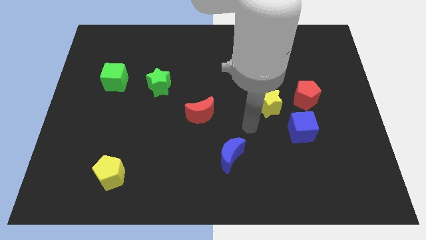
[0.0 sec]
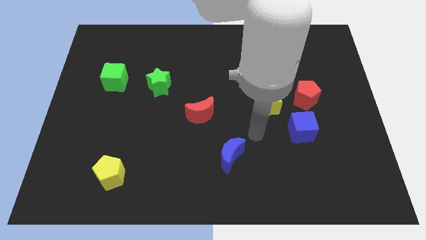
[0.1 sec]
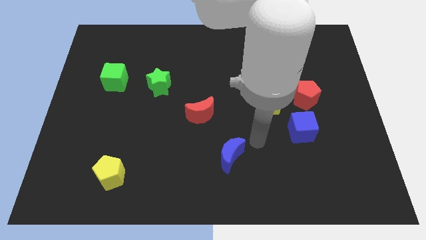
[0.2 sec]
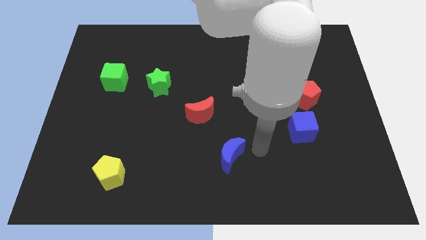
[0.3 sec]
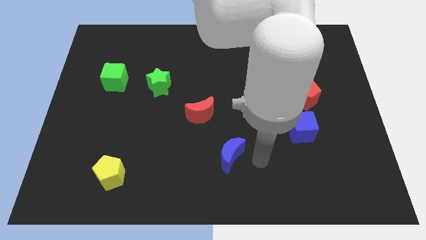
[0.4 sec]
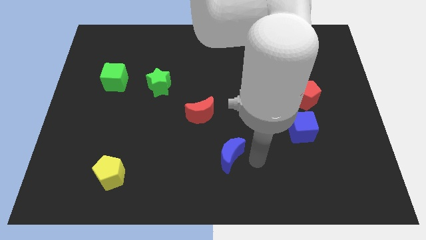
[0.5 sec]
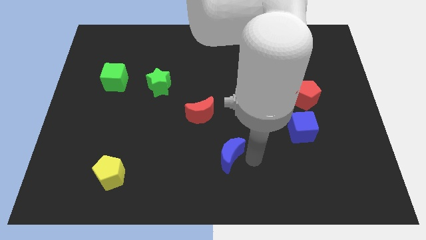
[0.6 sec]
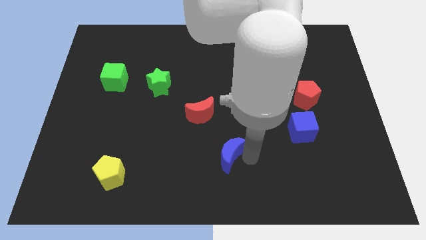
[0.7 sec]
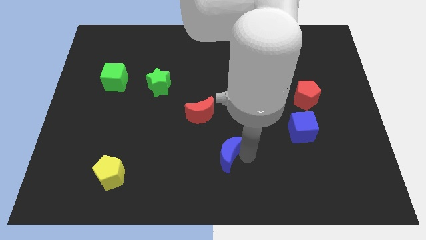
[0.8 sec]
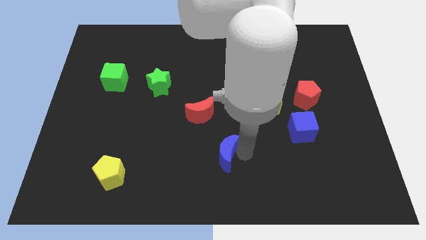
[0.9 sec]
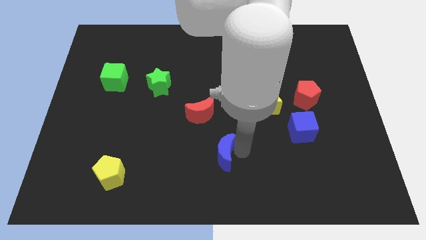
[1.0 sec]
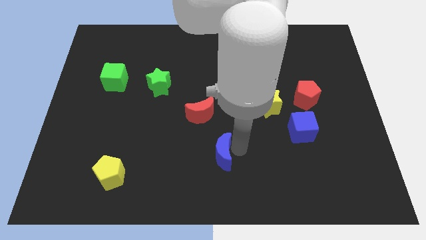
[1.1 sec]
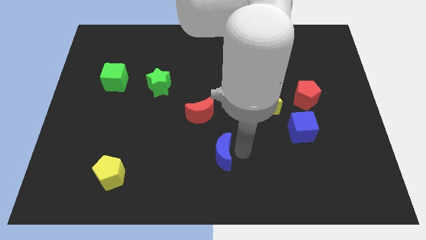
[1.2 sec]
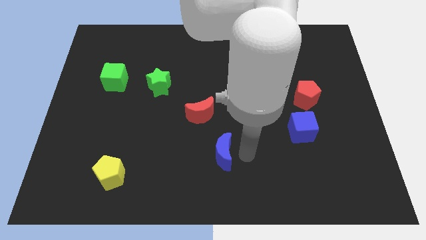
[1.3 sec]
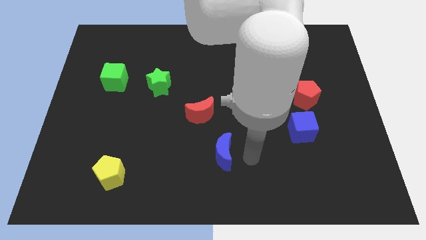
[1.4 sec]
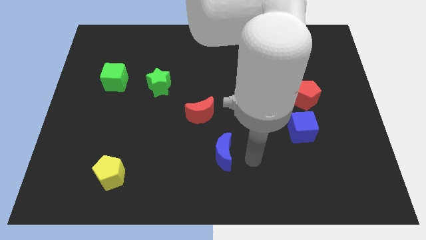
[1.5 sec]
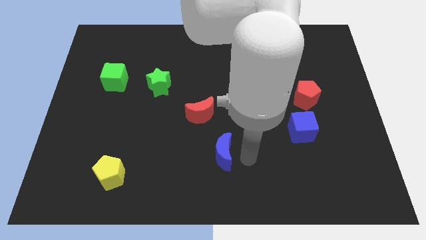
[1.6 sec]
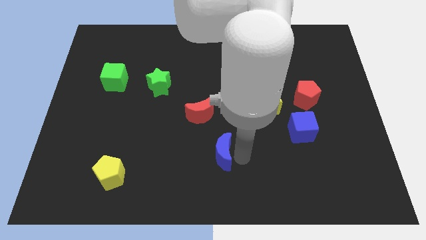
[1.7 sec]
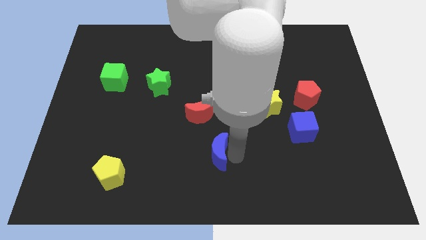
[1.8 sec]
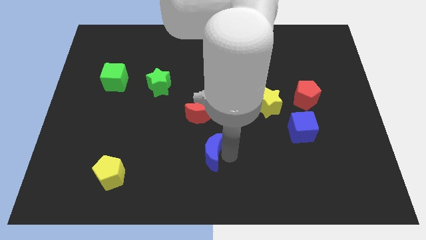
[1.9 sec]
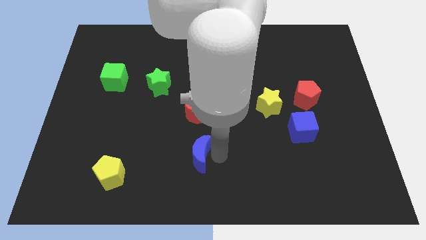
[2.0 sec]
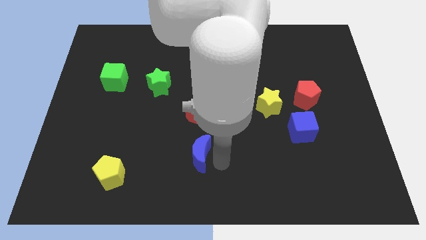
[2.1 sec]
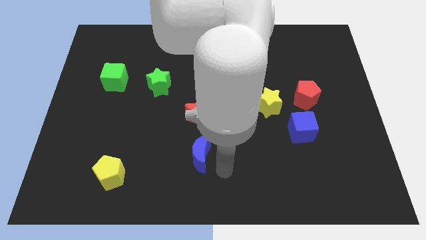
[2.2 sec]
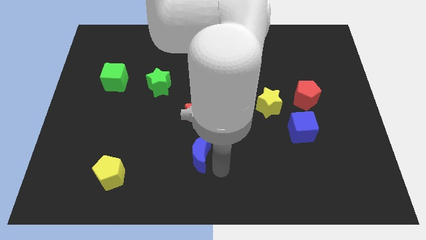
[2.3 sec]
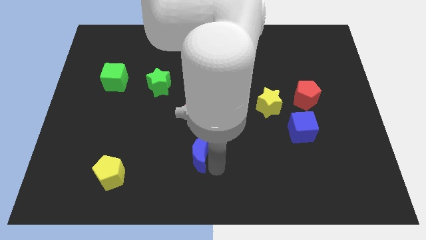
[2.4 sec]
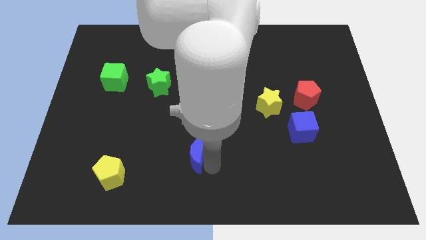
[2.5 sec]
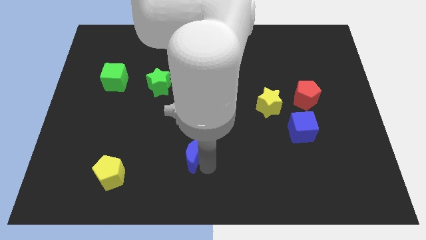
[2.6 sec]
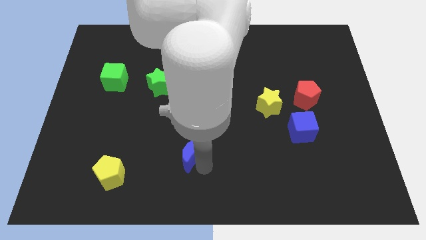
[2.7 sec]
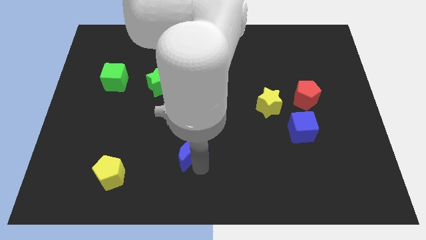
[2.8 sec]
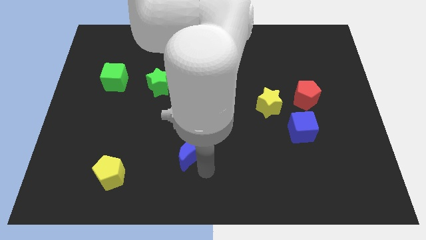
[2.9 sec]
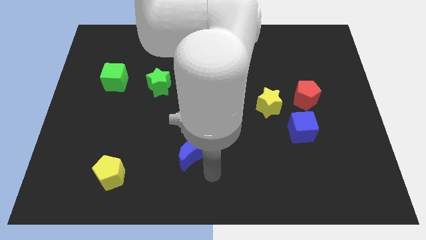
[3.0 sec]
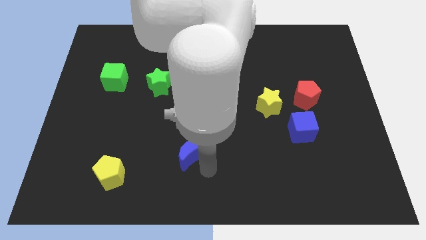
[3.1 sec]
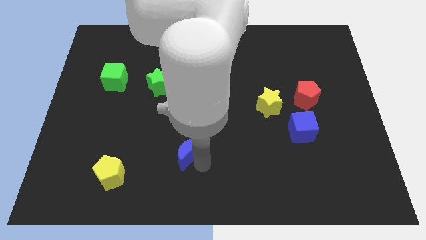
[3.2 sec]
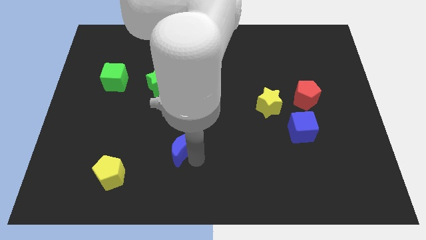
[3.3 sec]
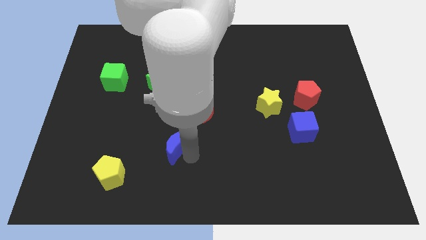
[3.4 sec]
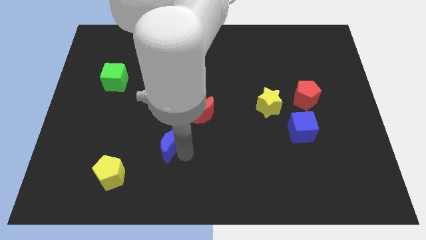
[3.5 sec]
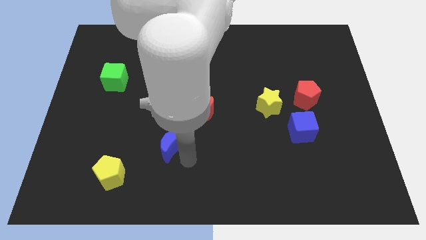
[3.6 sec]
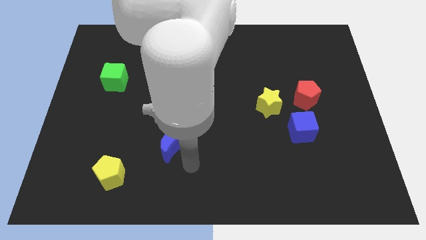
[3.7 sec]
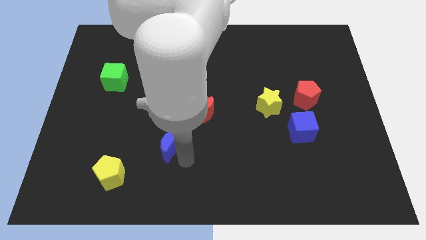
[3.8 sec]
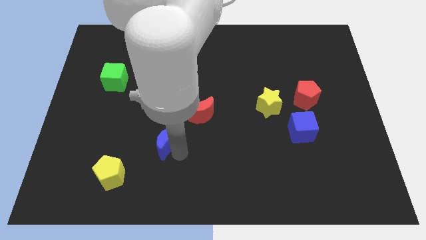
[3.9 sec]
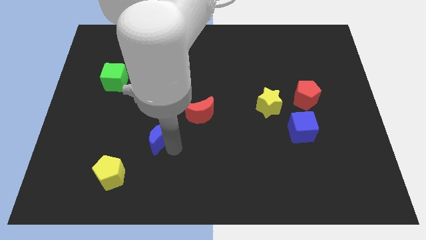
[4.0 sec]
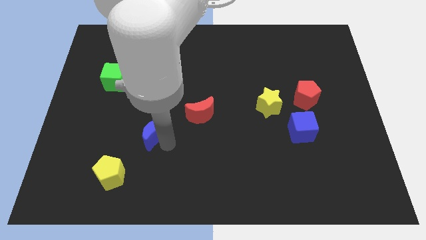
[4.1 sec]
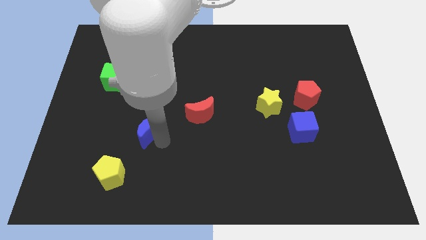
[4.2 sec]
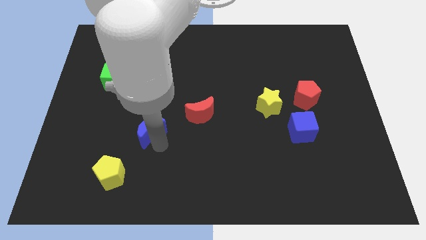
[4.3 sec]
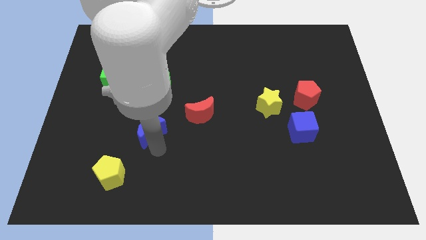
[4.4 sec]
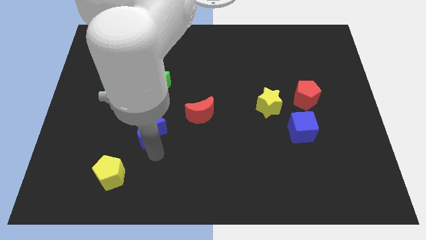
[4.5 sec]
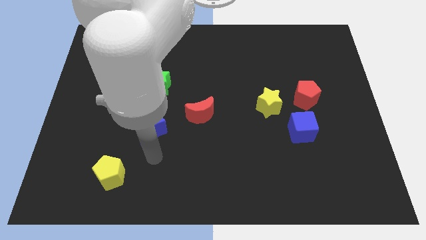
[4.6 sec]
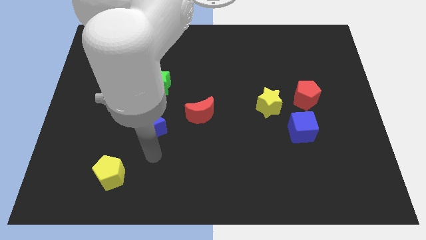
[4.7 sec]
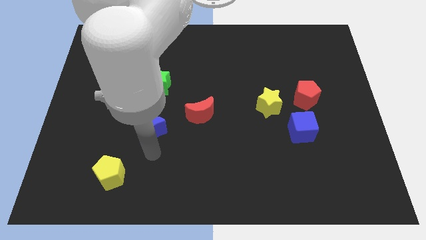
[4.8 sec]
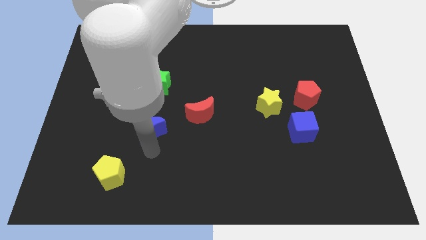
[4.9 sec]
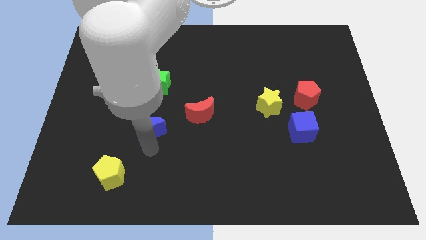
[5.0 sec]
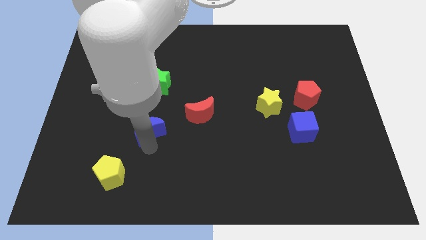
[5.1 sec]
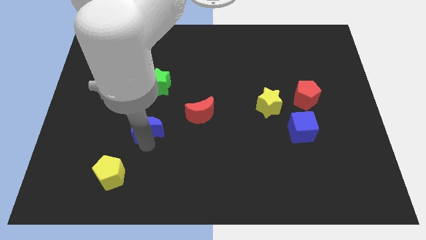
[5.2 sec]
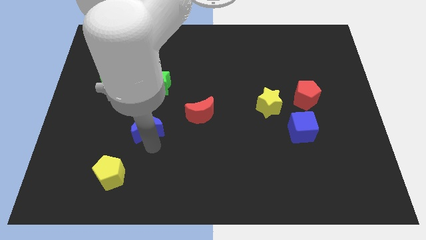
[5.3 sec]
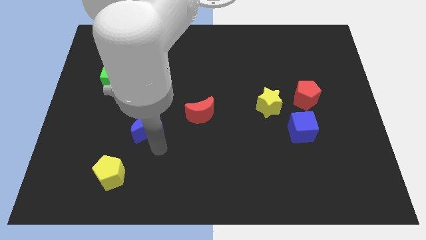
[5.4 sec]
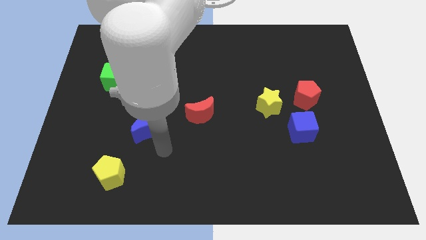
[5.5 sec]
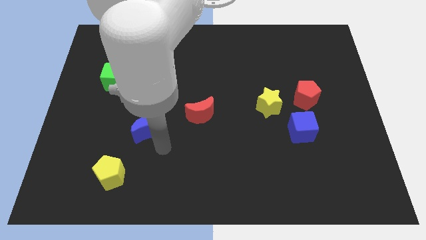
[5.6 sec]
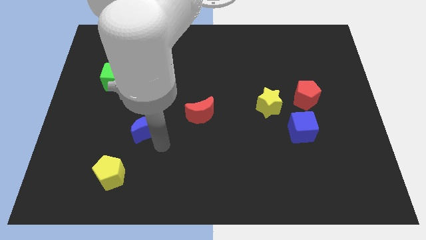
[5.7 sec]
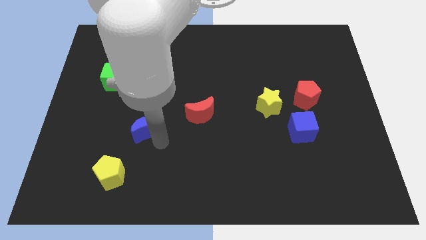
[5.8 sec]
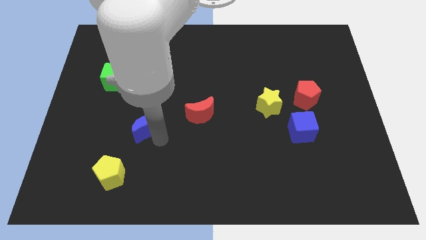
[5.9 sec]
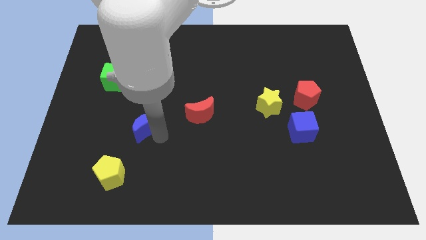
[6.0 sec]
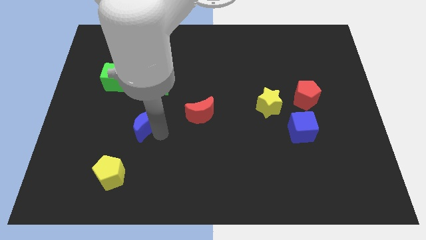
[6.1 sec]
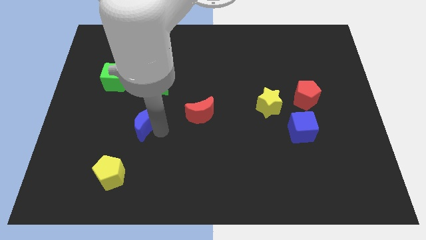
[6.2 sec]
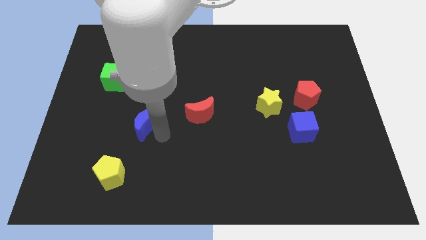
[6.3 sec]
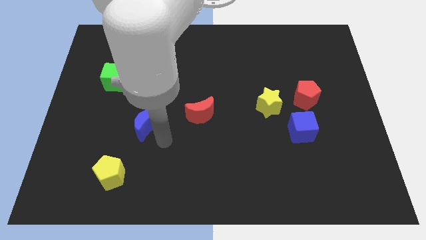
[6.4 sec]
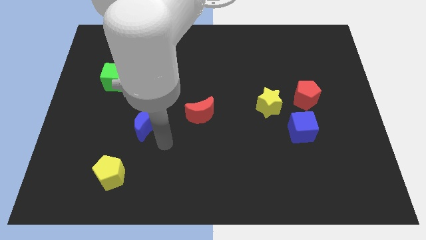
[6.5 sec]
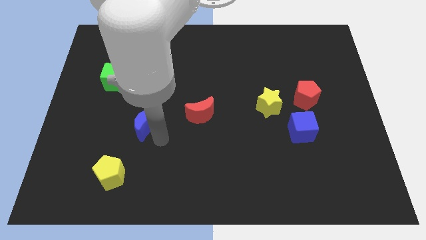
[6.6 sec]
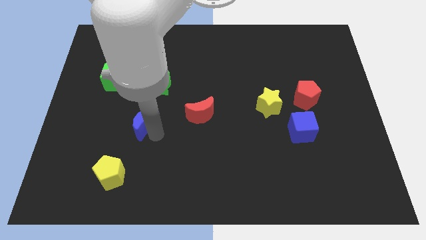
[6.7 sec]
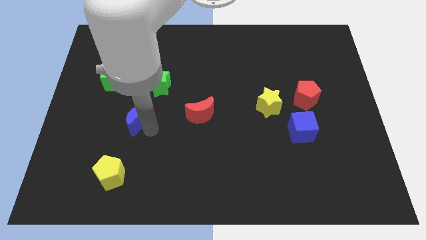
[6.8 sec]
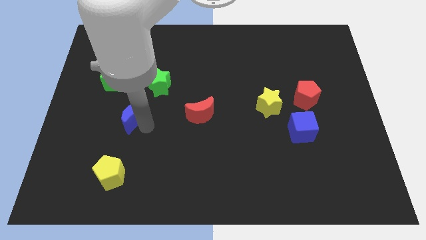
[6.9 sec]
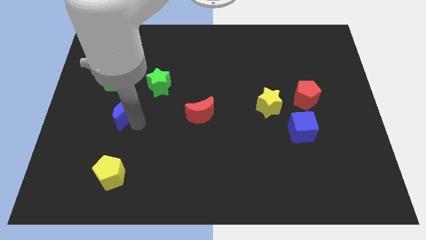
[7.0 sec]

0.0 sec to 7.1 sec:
move the blue moon upwards and then to the left

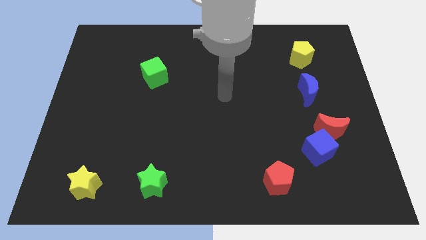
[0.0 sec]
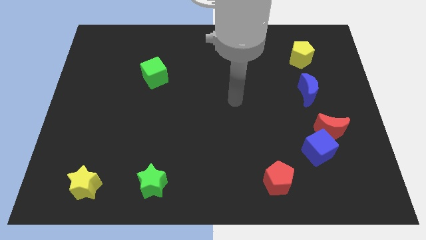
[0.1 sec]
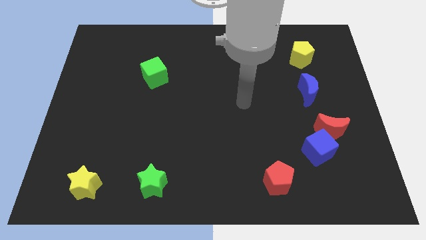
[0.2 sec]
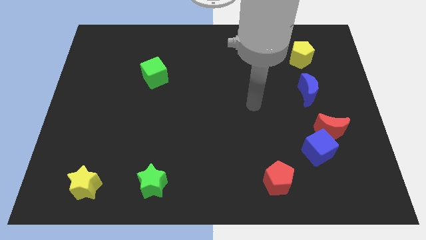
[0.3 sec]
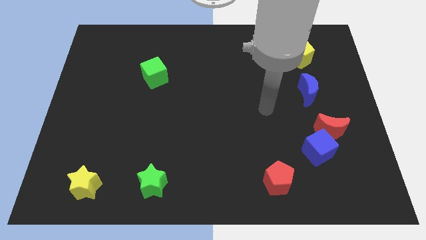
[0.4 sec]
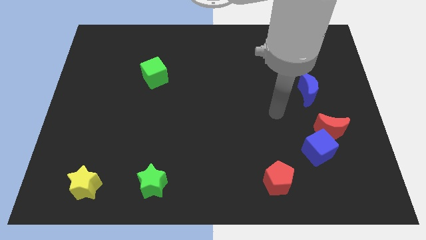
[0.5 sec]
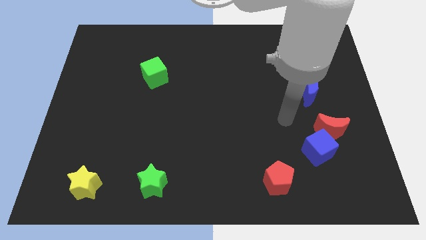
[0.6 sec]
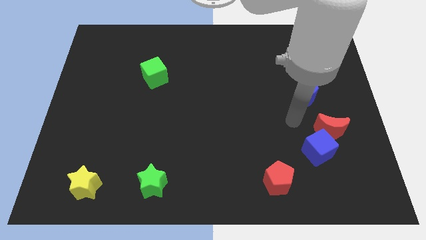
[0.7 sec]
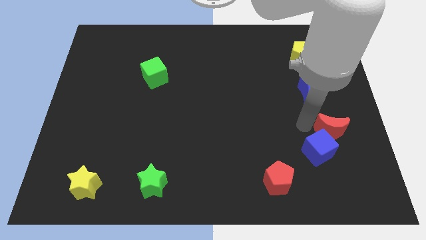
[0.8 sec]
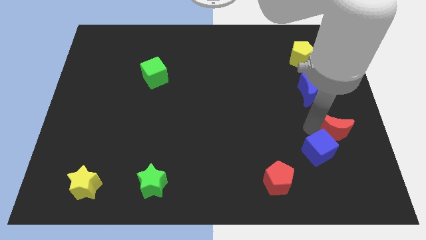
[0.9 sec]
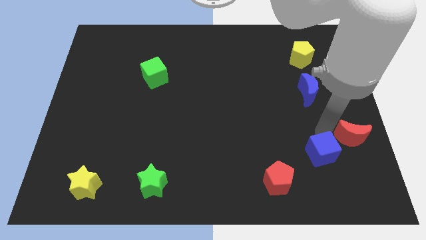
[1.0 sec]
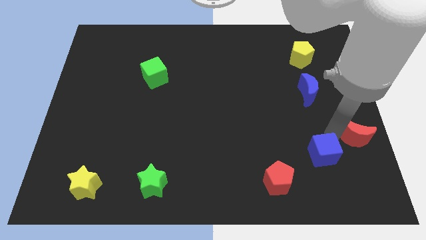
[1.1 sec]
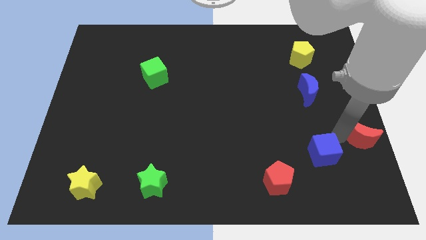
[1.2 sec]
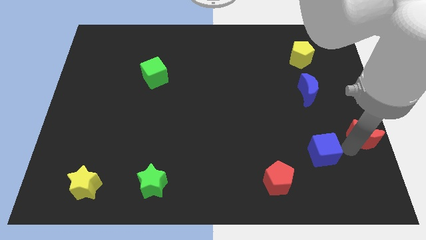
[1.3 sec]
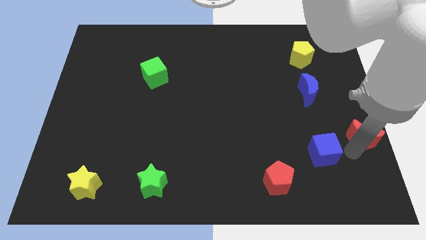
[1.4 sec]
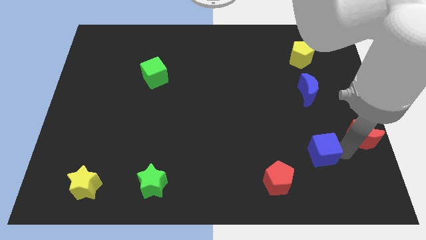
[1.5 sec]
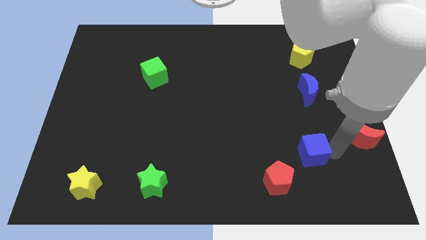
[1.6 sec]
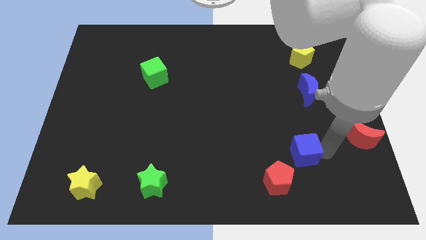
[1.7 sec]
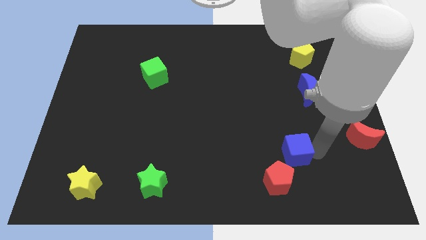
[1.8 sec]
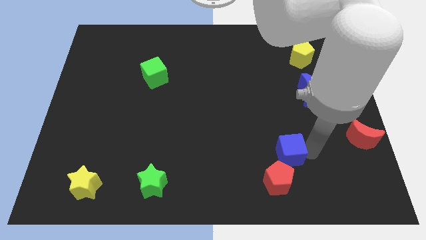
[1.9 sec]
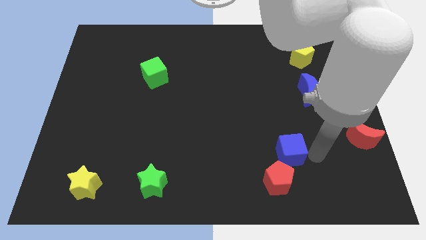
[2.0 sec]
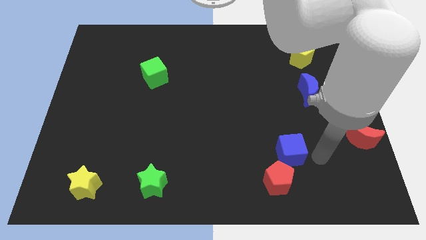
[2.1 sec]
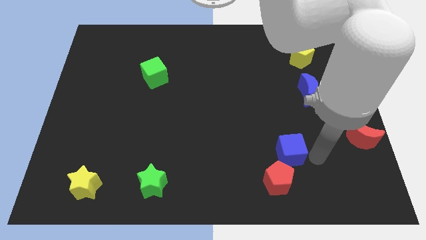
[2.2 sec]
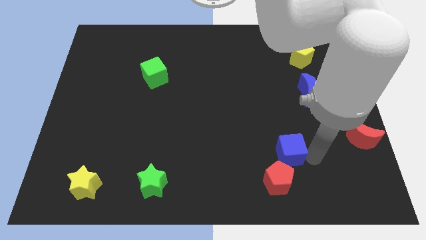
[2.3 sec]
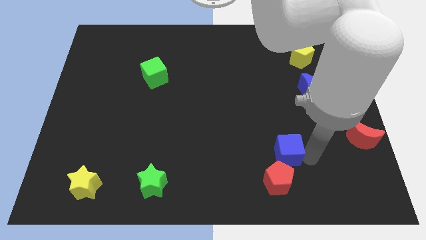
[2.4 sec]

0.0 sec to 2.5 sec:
move the blue cube to the left somewhat
